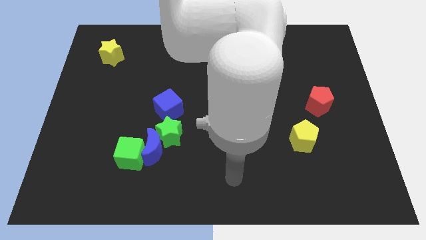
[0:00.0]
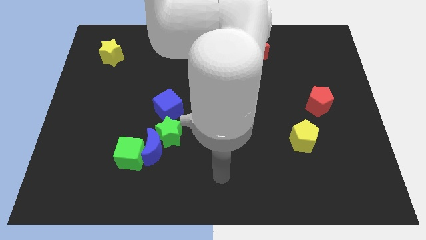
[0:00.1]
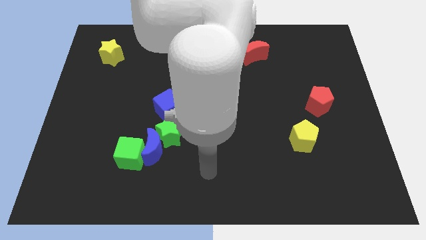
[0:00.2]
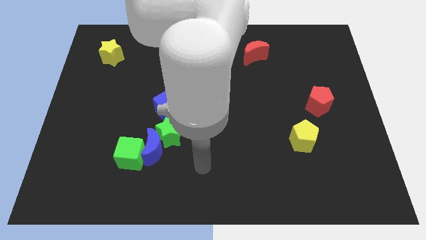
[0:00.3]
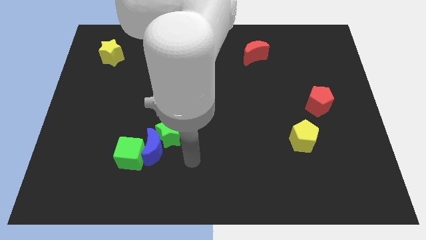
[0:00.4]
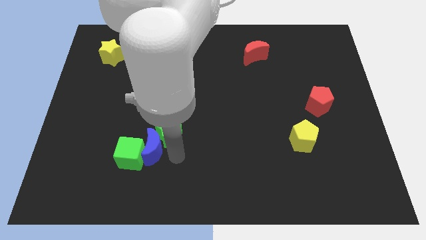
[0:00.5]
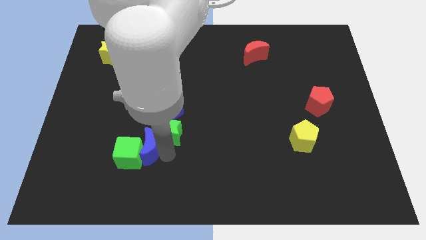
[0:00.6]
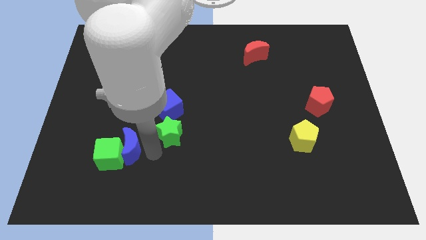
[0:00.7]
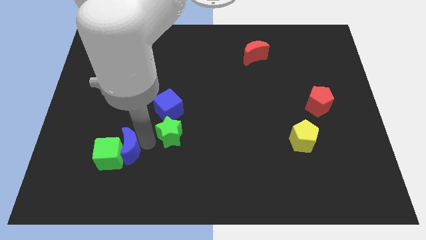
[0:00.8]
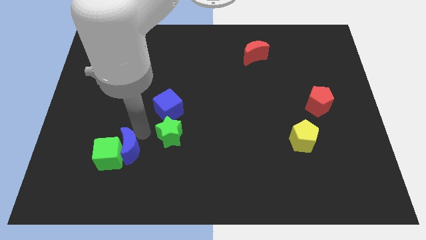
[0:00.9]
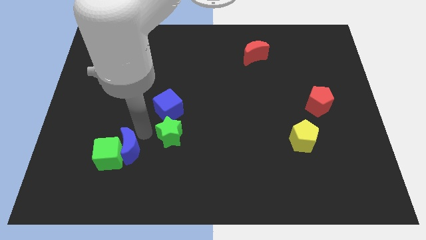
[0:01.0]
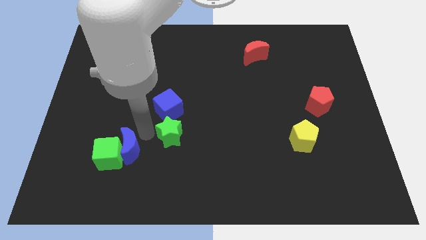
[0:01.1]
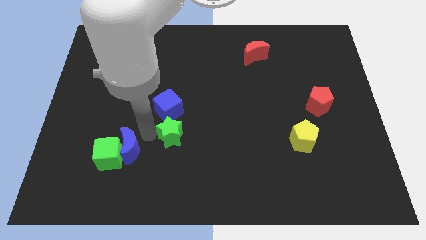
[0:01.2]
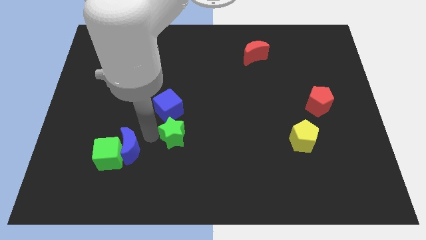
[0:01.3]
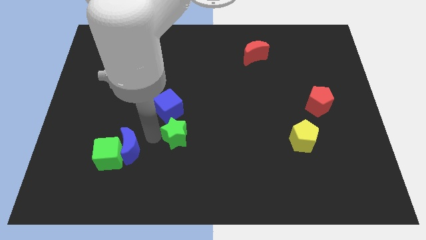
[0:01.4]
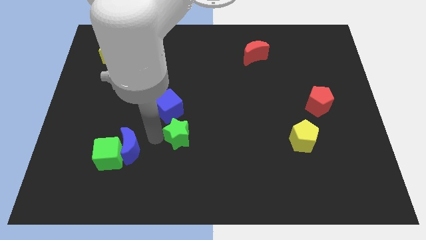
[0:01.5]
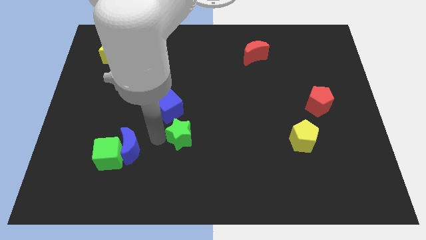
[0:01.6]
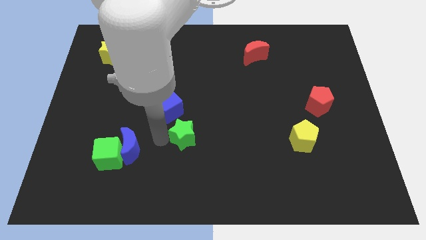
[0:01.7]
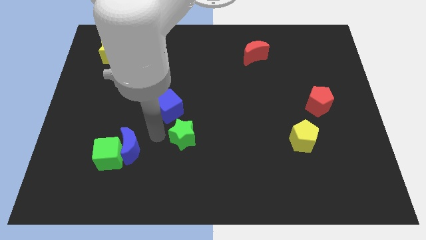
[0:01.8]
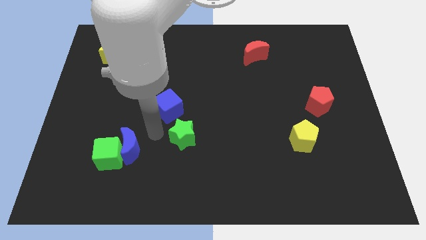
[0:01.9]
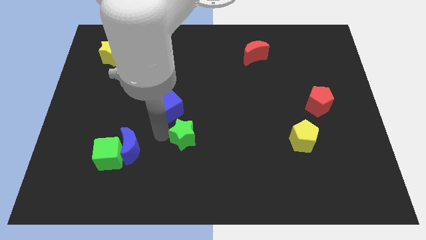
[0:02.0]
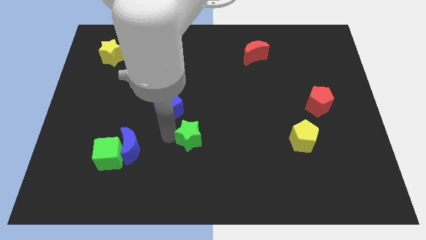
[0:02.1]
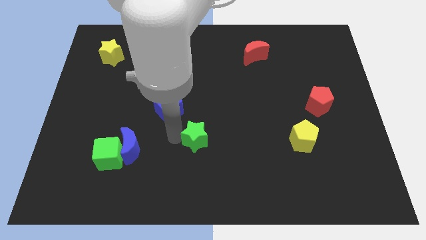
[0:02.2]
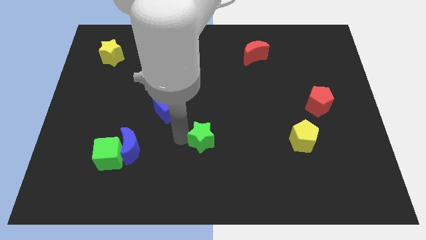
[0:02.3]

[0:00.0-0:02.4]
slightly slide the green star to the right

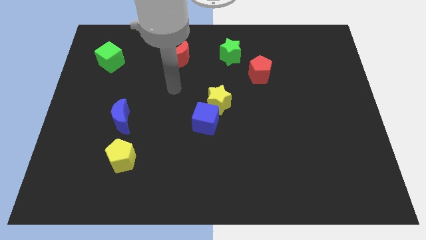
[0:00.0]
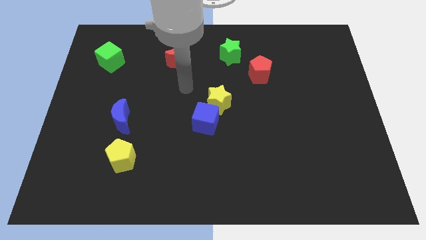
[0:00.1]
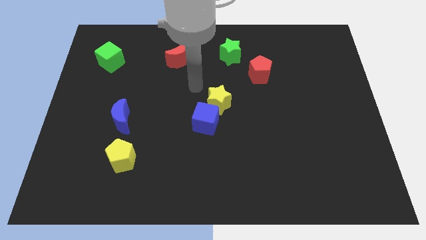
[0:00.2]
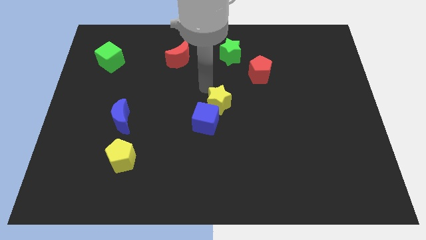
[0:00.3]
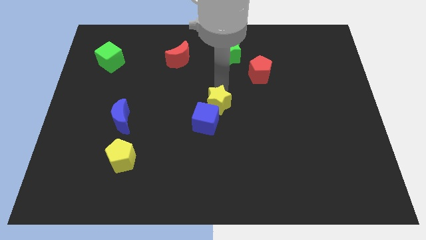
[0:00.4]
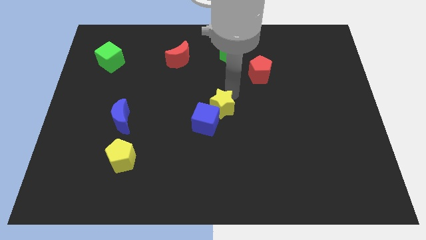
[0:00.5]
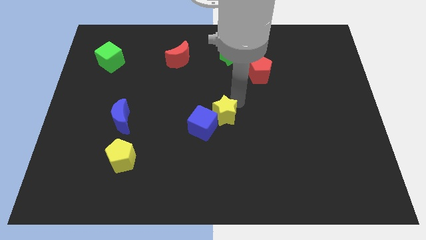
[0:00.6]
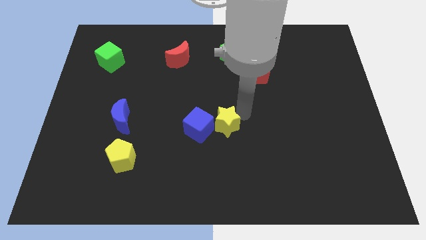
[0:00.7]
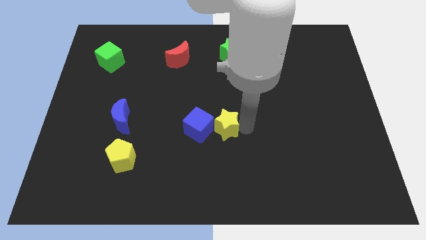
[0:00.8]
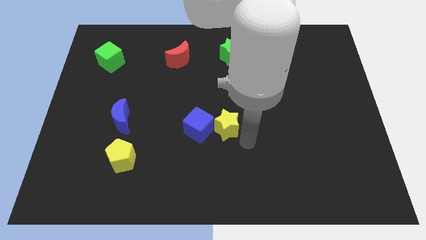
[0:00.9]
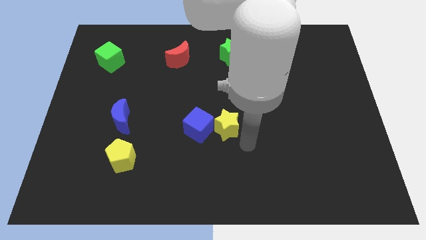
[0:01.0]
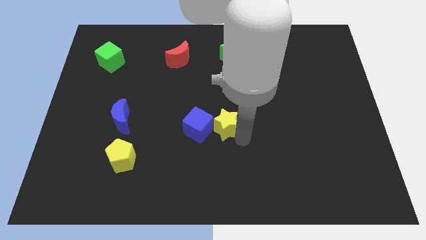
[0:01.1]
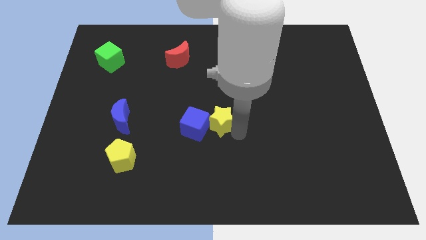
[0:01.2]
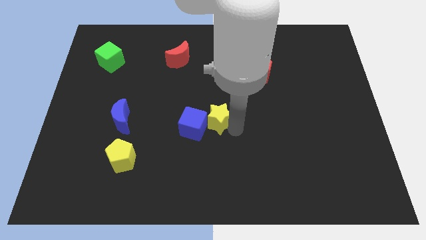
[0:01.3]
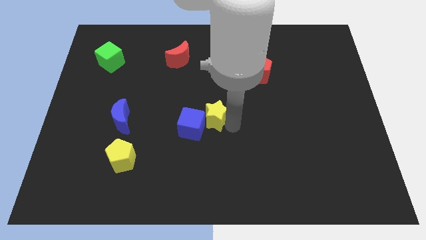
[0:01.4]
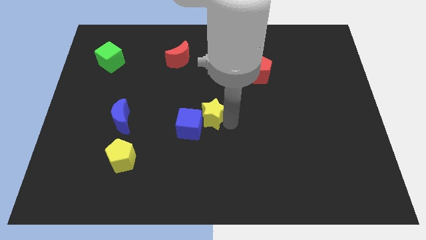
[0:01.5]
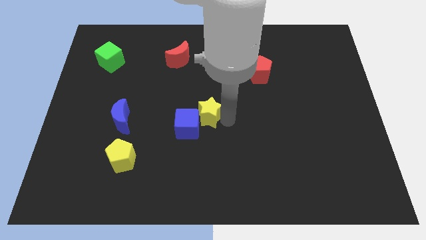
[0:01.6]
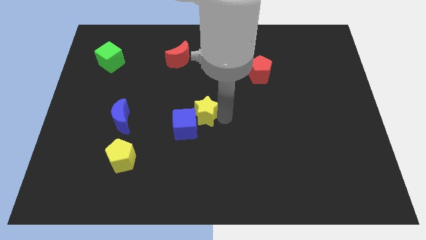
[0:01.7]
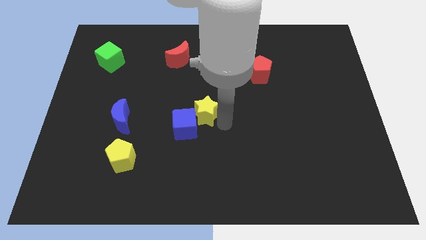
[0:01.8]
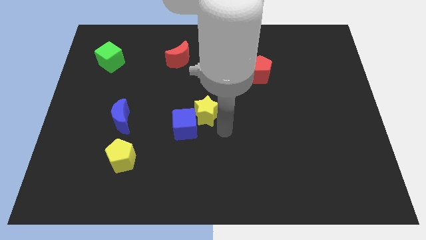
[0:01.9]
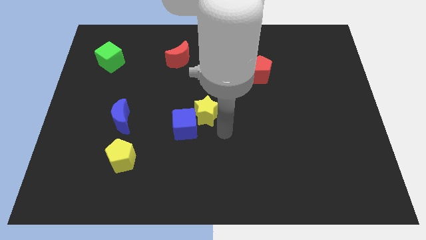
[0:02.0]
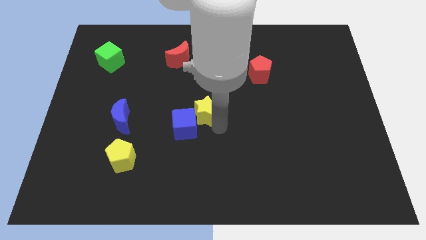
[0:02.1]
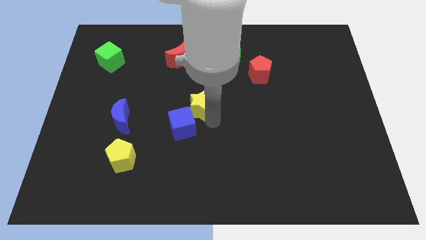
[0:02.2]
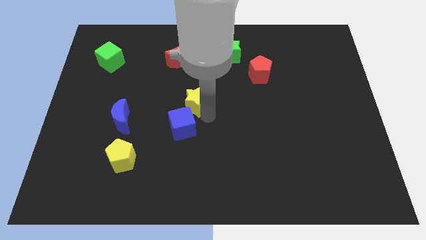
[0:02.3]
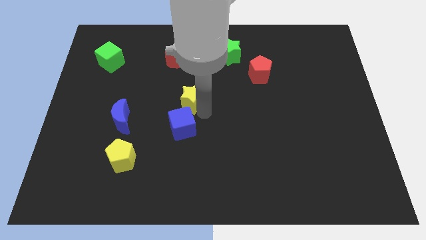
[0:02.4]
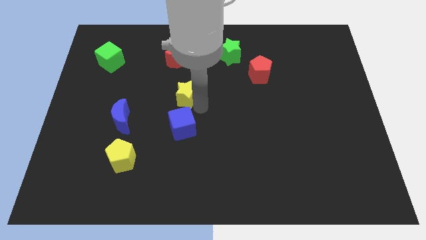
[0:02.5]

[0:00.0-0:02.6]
push the yellow star a little to the left

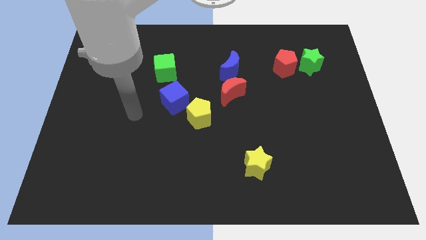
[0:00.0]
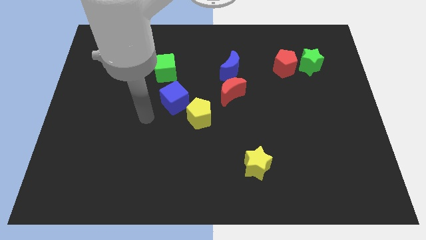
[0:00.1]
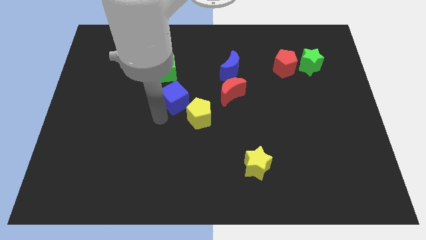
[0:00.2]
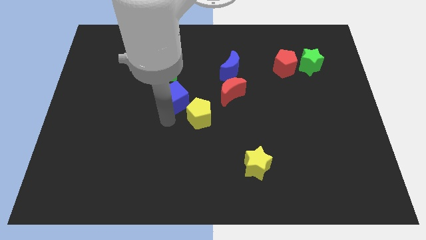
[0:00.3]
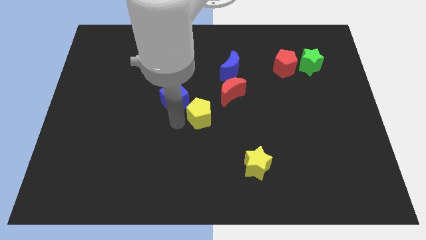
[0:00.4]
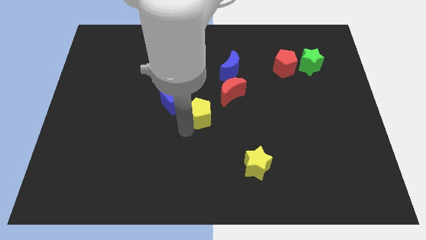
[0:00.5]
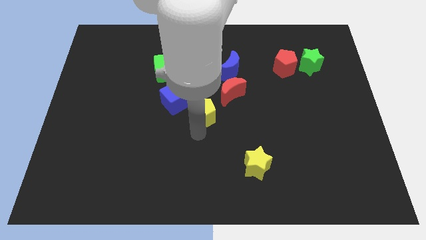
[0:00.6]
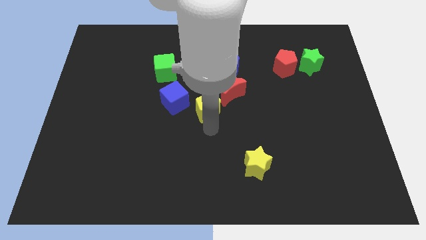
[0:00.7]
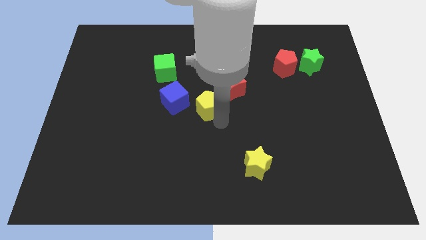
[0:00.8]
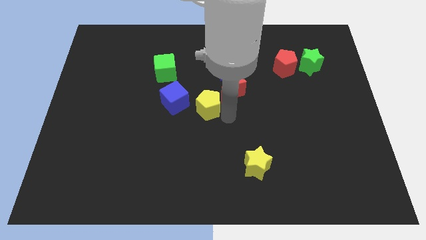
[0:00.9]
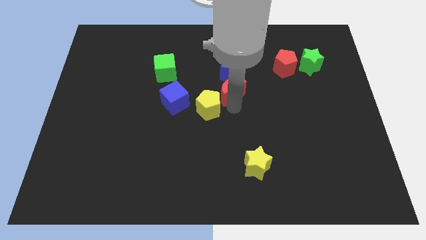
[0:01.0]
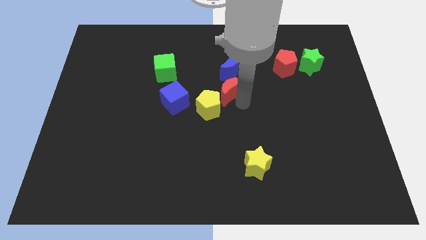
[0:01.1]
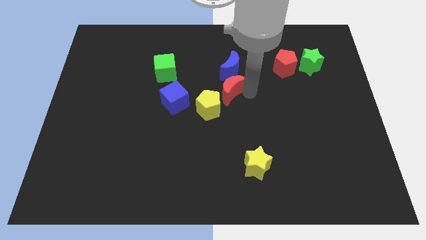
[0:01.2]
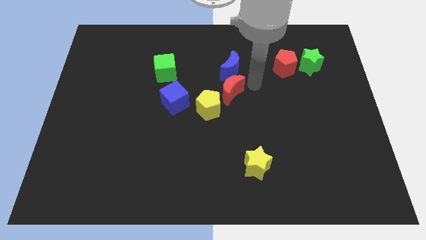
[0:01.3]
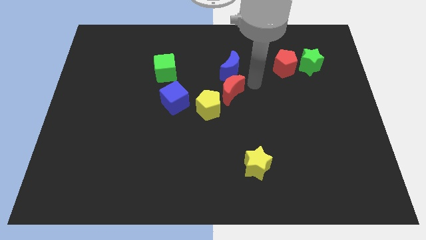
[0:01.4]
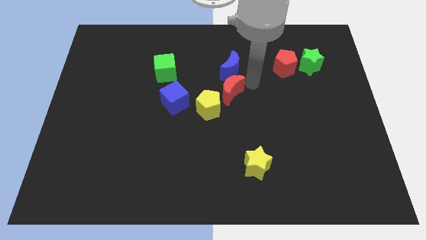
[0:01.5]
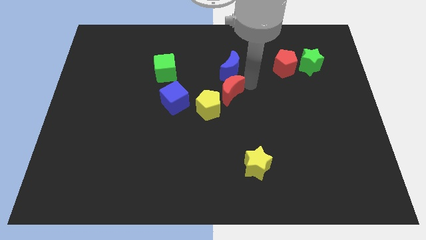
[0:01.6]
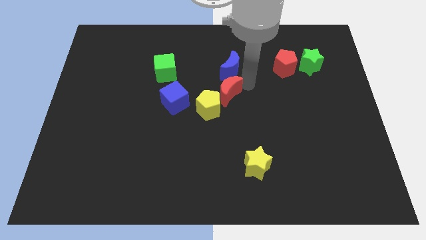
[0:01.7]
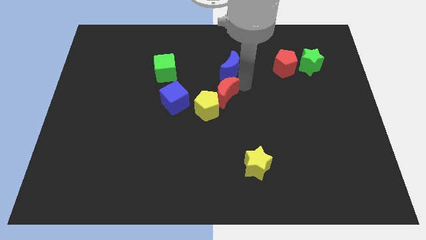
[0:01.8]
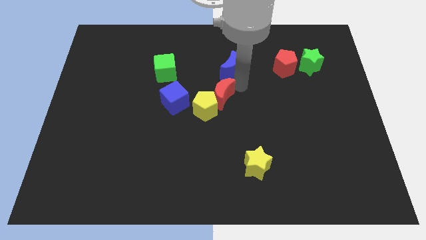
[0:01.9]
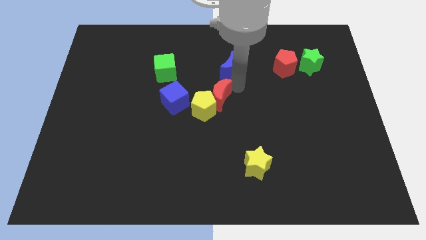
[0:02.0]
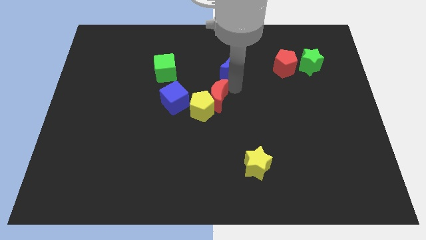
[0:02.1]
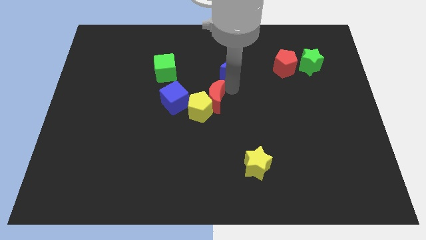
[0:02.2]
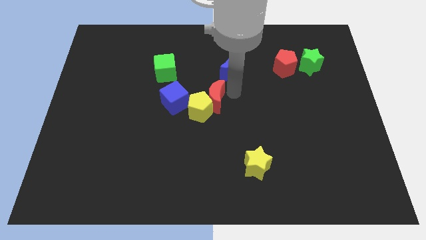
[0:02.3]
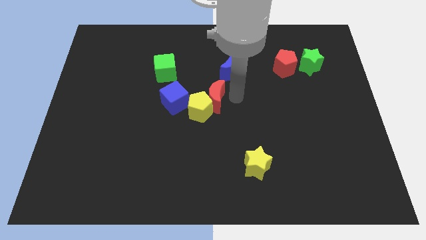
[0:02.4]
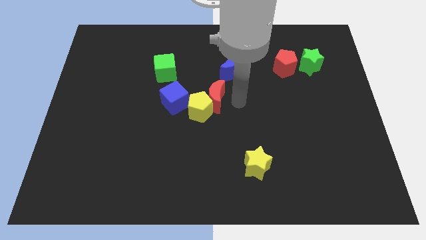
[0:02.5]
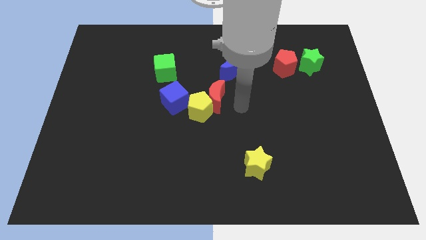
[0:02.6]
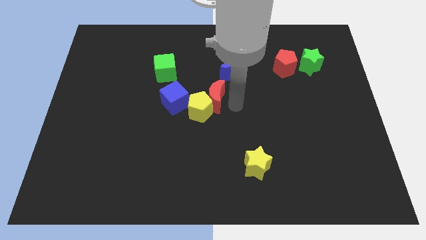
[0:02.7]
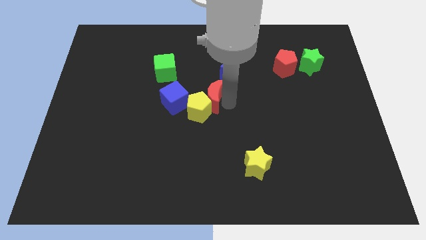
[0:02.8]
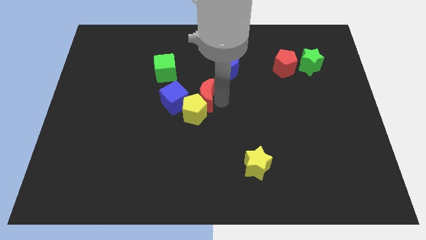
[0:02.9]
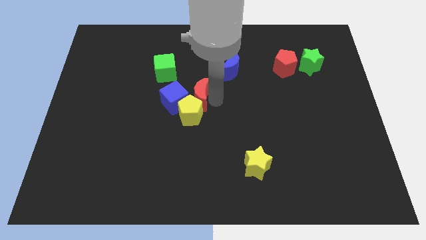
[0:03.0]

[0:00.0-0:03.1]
slide the red moon left a little
